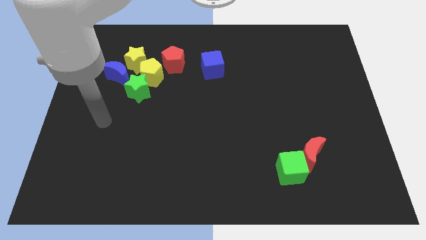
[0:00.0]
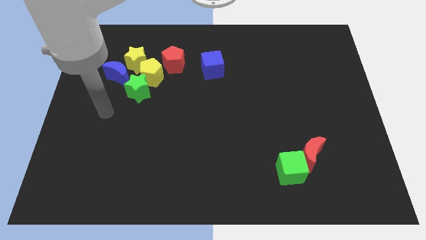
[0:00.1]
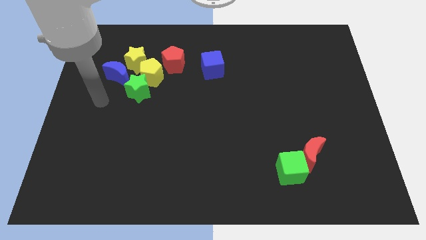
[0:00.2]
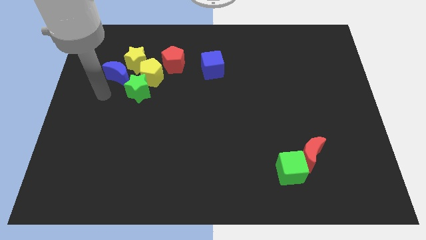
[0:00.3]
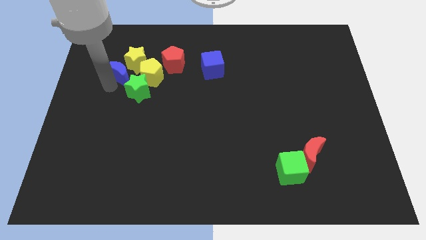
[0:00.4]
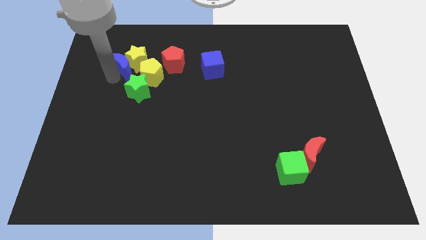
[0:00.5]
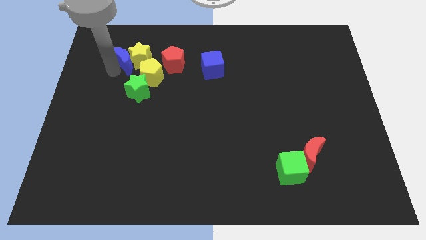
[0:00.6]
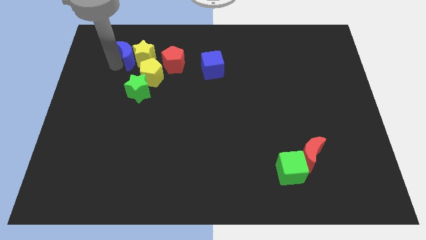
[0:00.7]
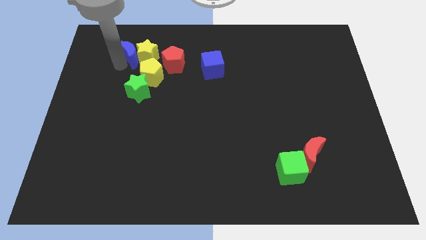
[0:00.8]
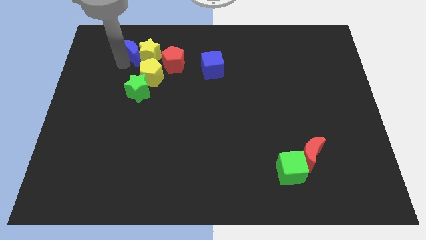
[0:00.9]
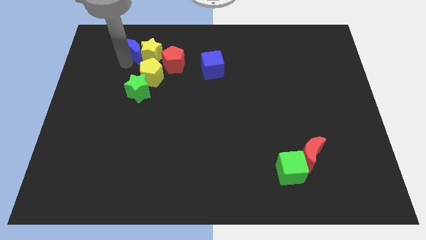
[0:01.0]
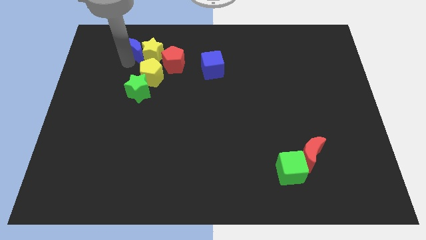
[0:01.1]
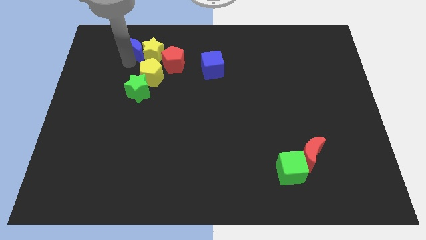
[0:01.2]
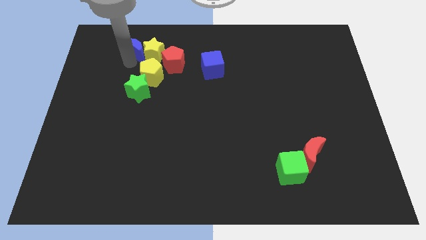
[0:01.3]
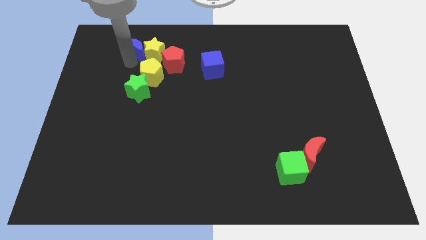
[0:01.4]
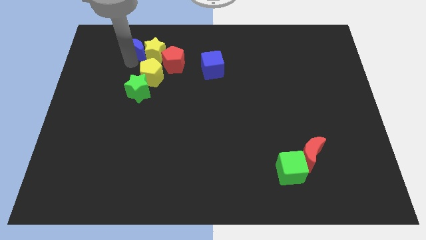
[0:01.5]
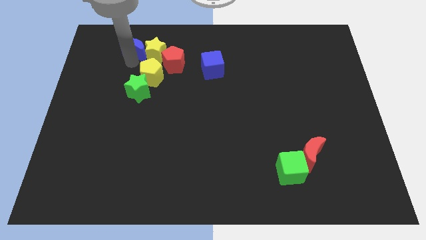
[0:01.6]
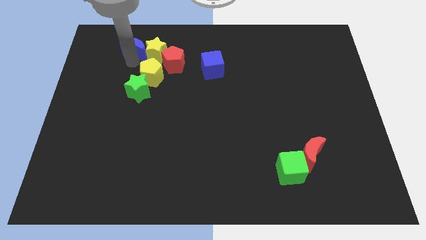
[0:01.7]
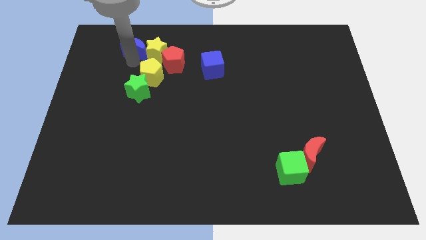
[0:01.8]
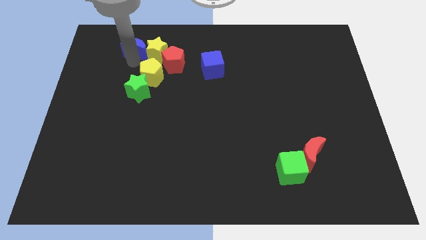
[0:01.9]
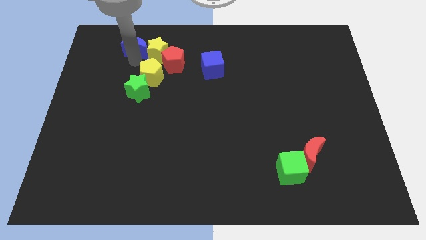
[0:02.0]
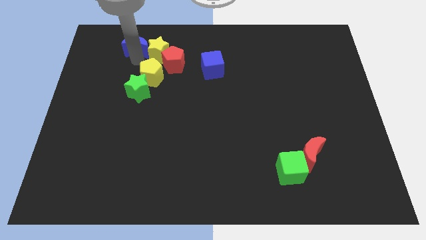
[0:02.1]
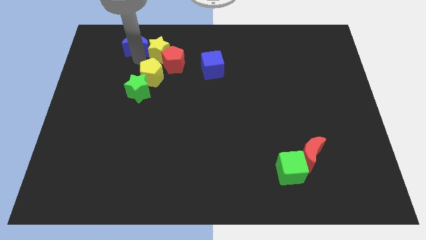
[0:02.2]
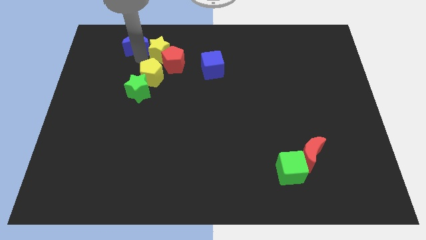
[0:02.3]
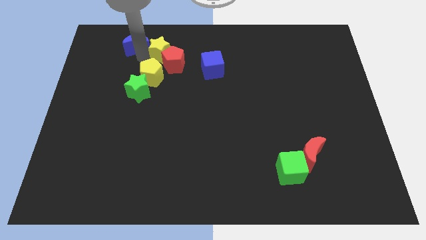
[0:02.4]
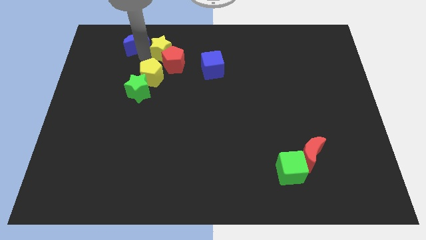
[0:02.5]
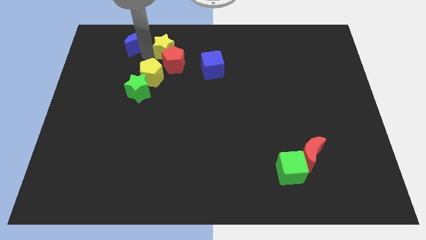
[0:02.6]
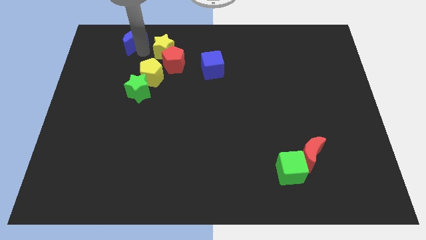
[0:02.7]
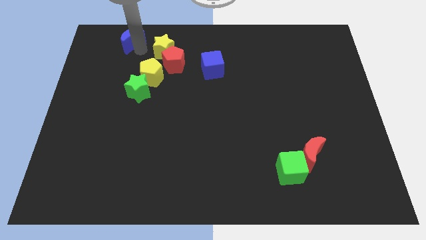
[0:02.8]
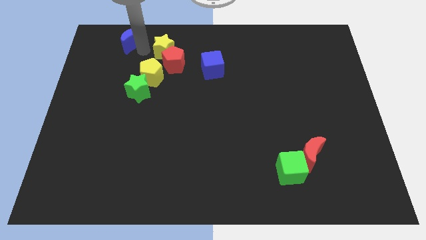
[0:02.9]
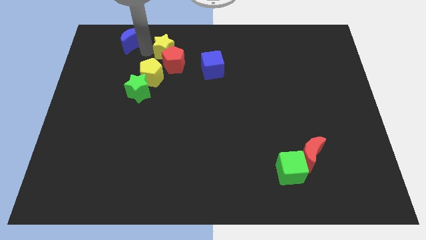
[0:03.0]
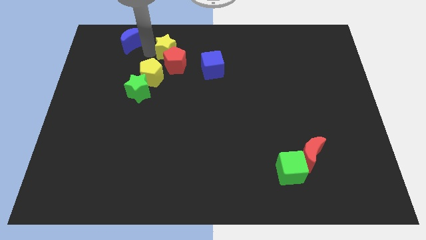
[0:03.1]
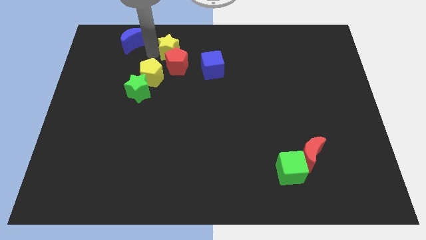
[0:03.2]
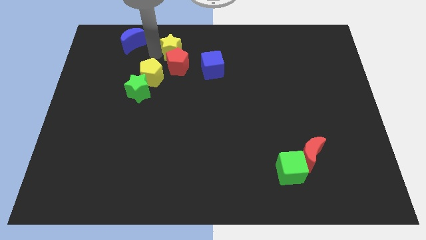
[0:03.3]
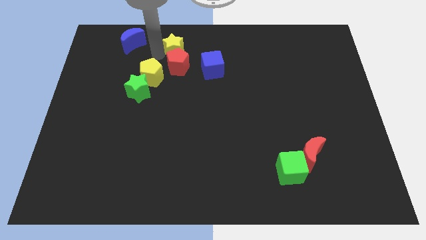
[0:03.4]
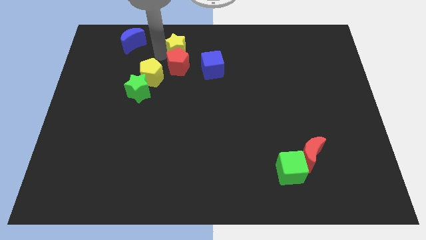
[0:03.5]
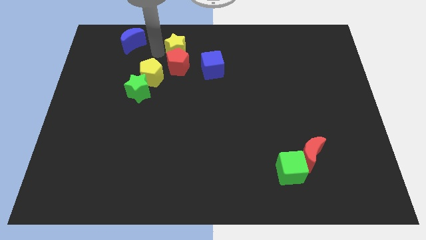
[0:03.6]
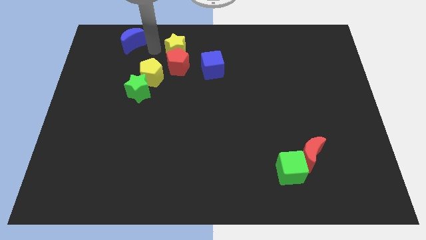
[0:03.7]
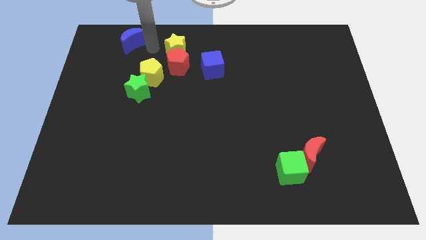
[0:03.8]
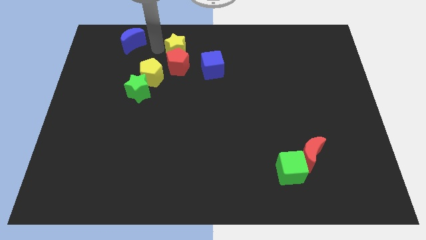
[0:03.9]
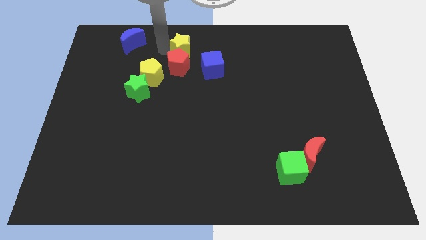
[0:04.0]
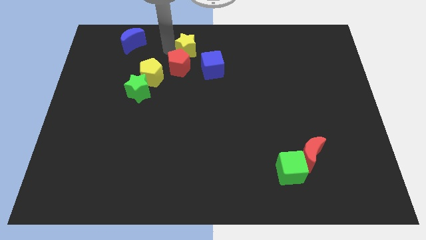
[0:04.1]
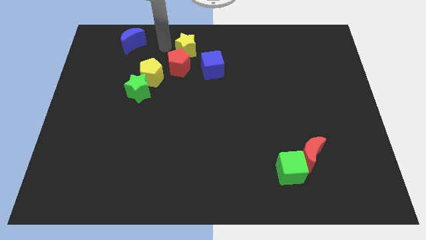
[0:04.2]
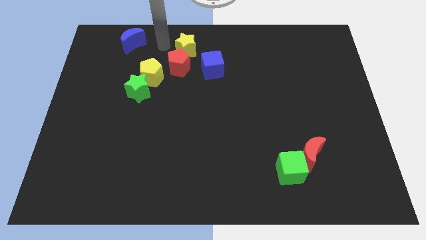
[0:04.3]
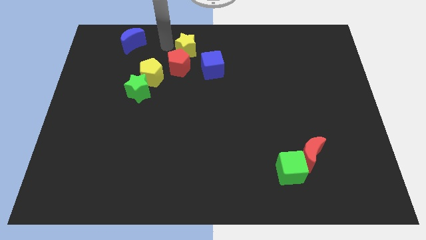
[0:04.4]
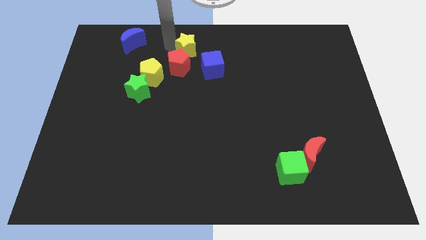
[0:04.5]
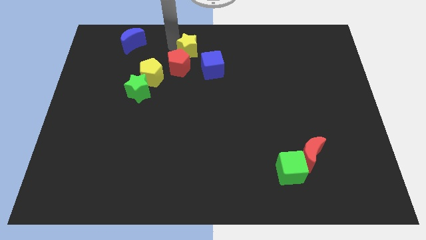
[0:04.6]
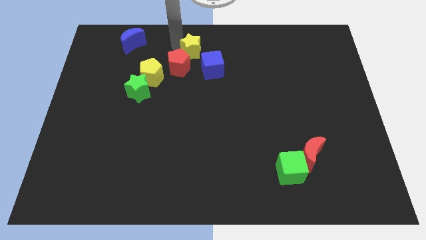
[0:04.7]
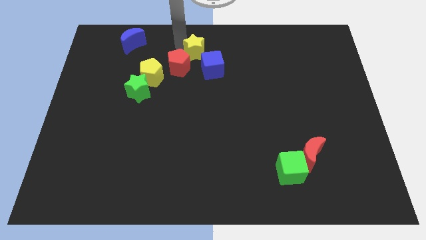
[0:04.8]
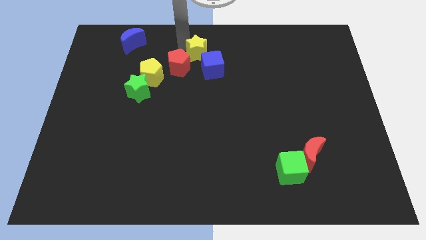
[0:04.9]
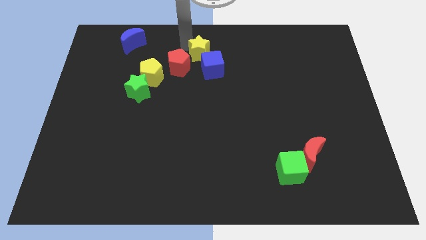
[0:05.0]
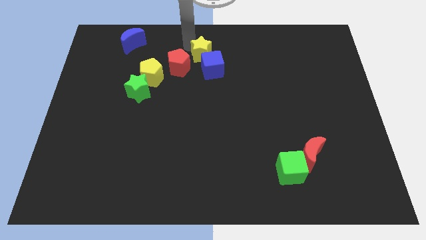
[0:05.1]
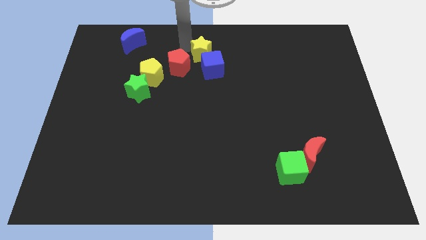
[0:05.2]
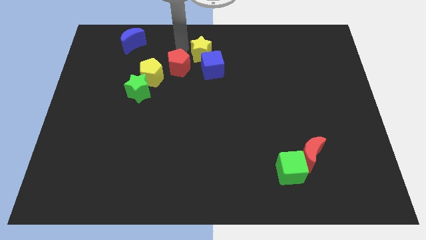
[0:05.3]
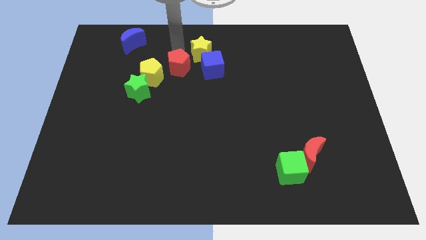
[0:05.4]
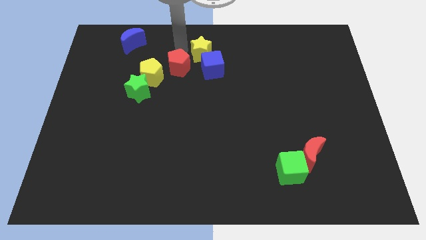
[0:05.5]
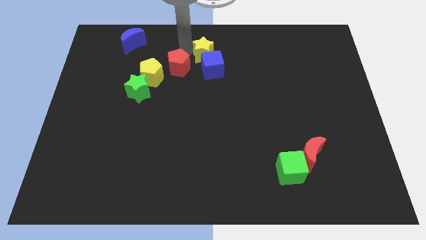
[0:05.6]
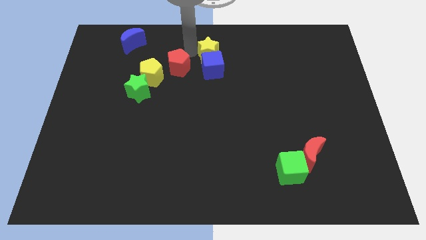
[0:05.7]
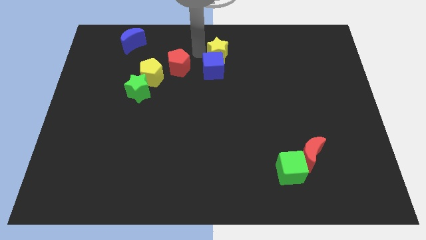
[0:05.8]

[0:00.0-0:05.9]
slide the yellow star to the right

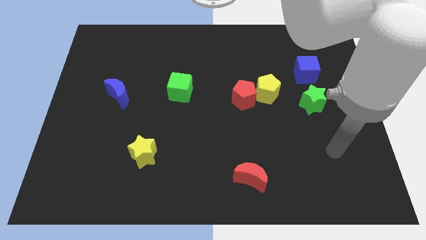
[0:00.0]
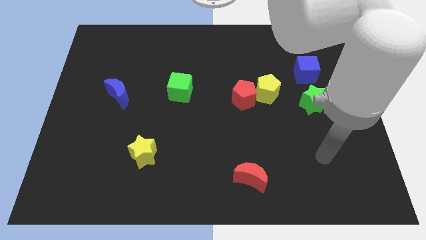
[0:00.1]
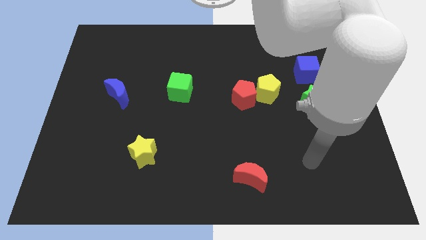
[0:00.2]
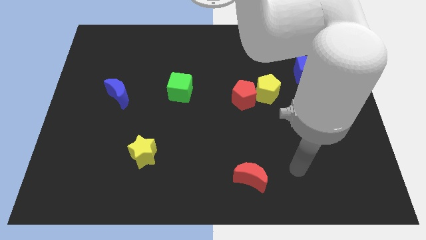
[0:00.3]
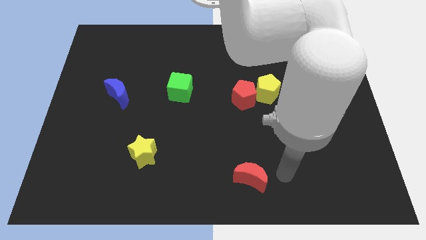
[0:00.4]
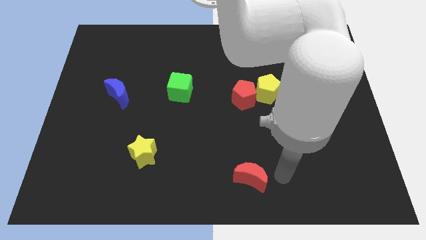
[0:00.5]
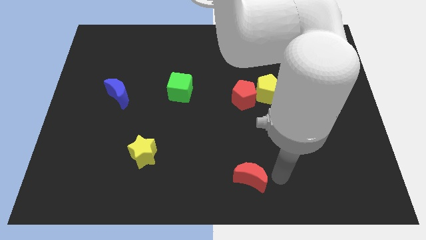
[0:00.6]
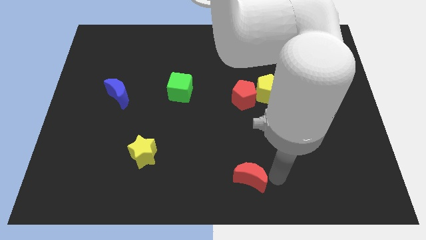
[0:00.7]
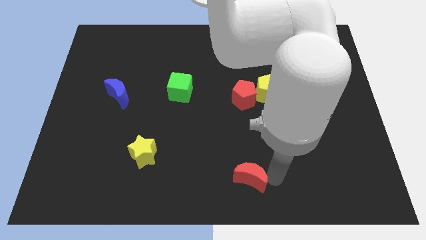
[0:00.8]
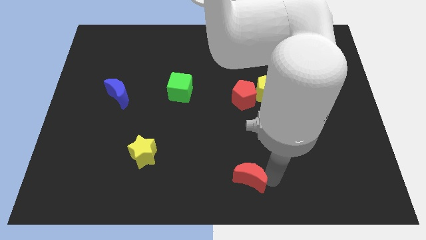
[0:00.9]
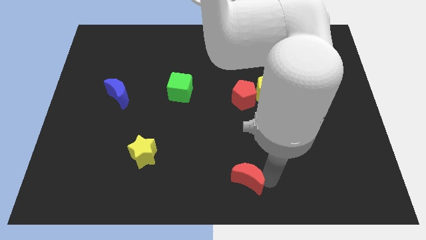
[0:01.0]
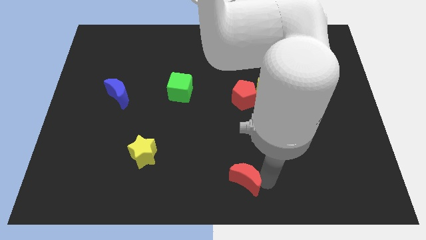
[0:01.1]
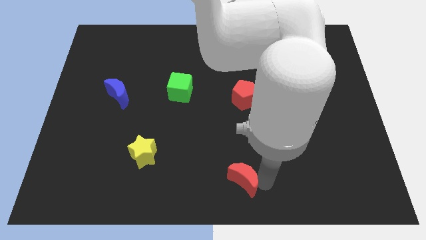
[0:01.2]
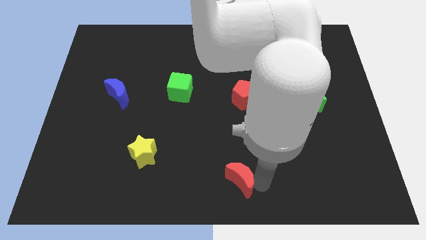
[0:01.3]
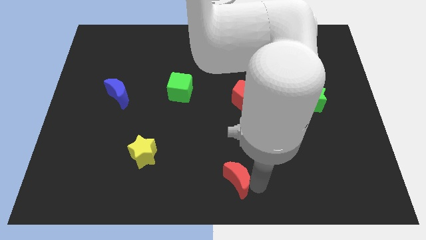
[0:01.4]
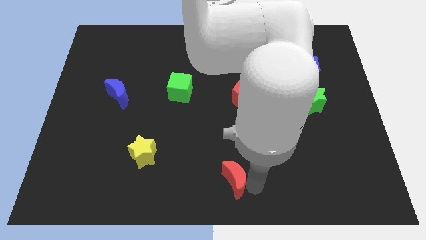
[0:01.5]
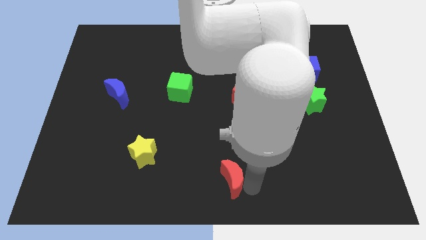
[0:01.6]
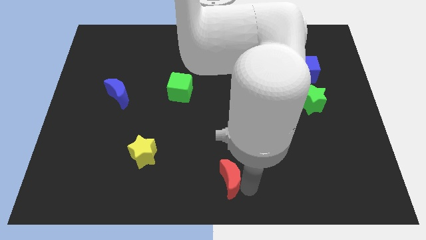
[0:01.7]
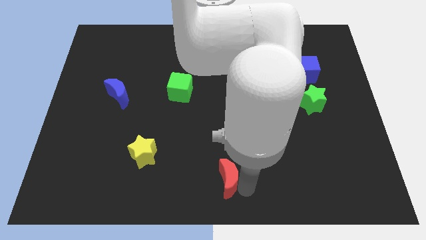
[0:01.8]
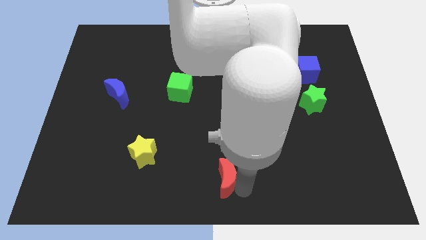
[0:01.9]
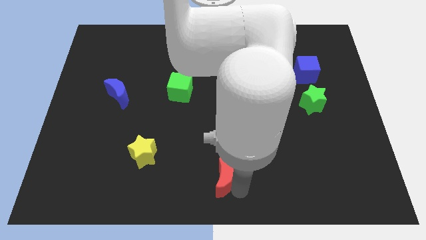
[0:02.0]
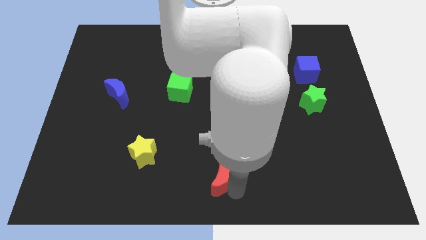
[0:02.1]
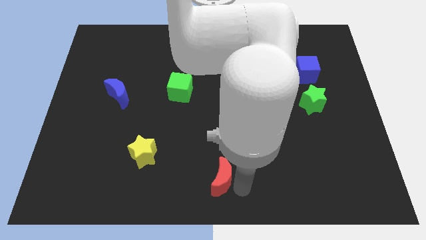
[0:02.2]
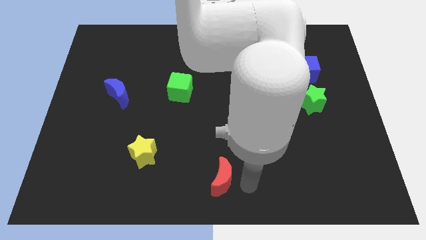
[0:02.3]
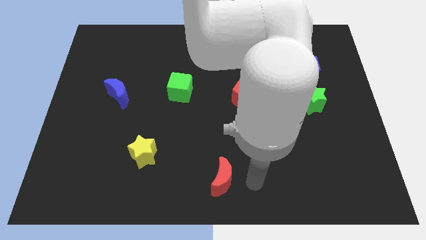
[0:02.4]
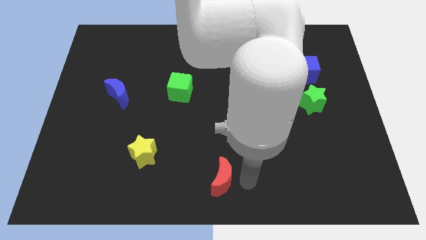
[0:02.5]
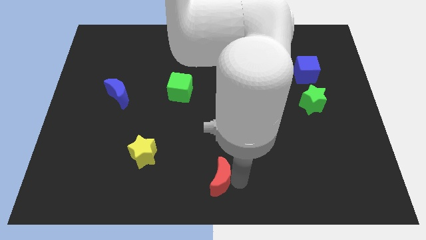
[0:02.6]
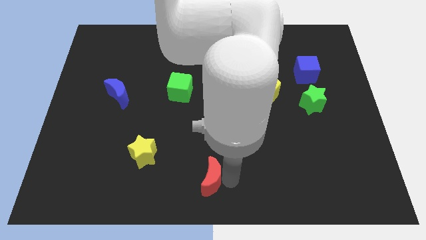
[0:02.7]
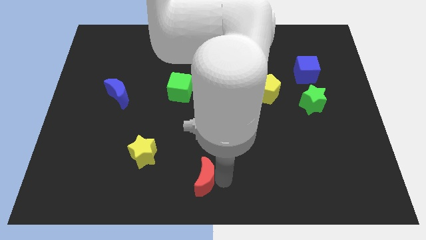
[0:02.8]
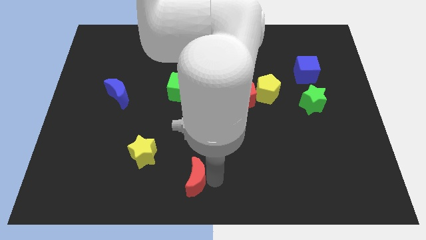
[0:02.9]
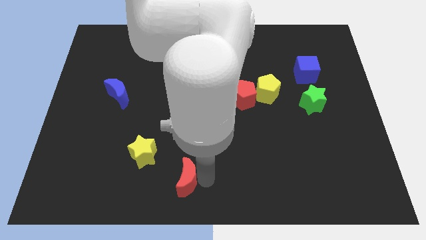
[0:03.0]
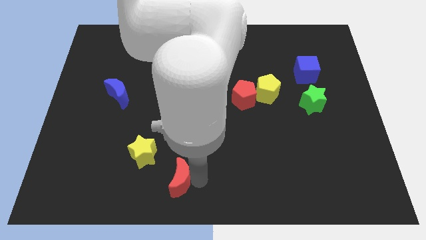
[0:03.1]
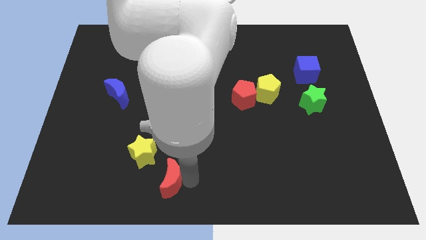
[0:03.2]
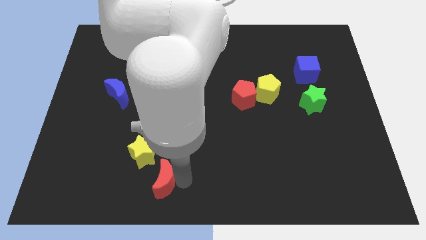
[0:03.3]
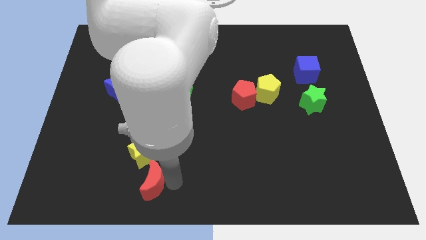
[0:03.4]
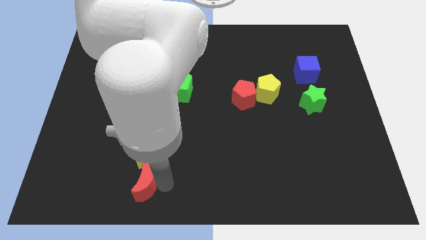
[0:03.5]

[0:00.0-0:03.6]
move the red moon left
